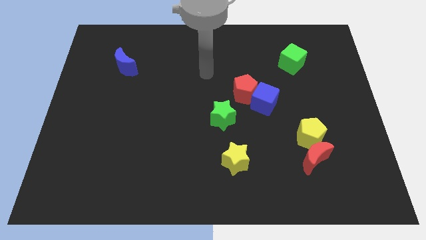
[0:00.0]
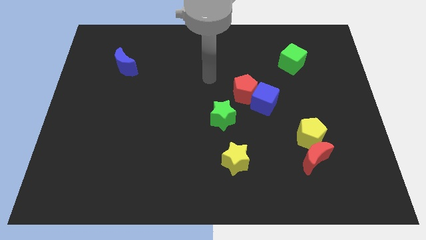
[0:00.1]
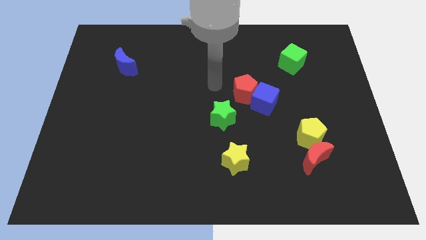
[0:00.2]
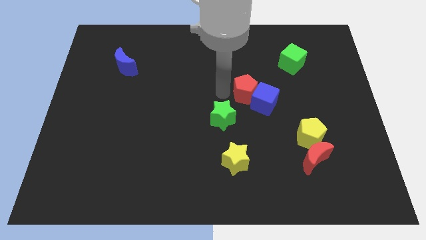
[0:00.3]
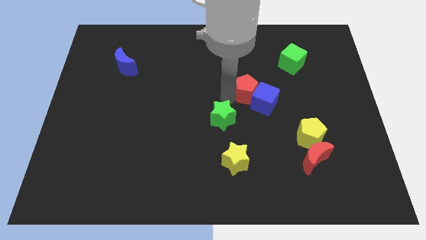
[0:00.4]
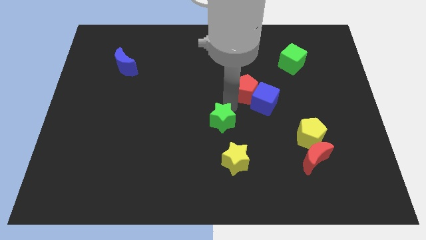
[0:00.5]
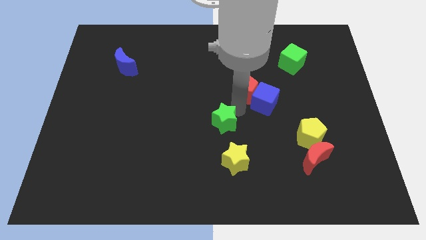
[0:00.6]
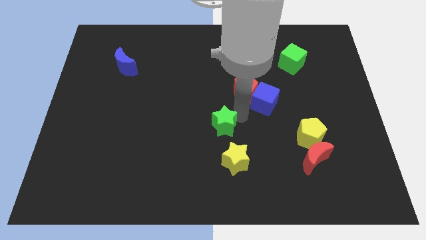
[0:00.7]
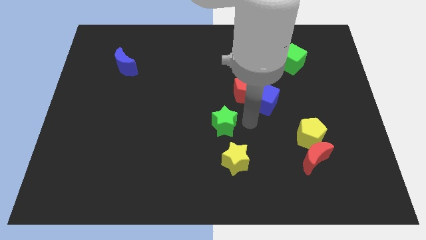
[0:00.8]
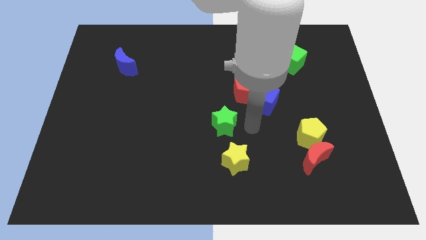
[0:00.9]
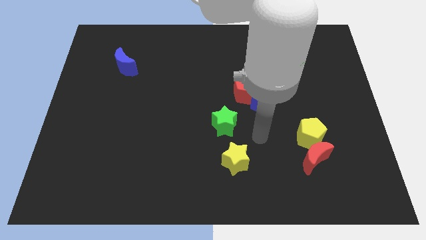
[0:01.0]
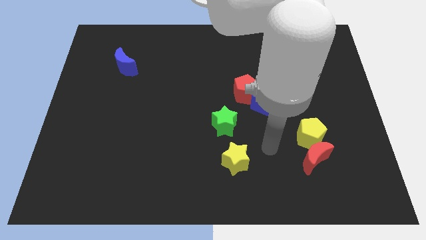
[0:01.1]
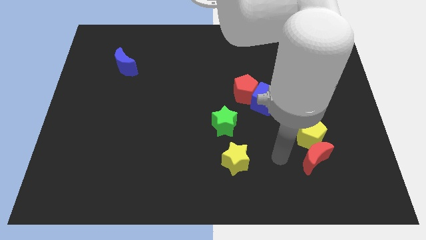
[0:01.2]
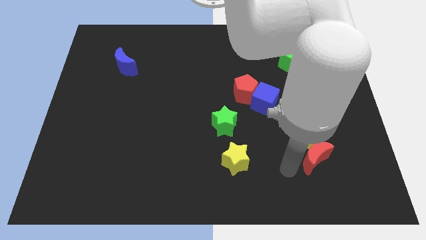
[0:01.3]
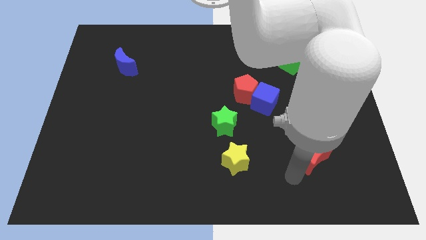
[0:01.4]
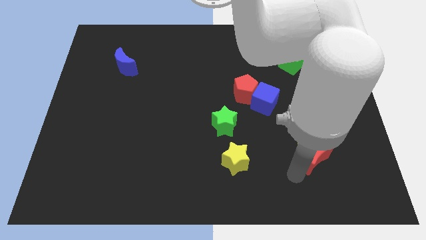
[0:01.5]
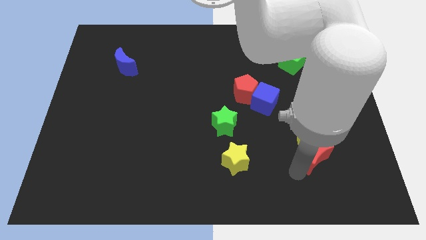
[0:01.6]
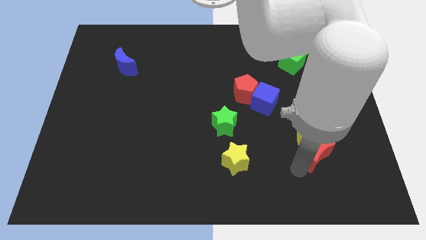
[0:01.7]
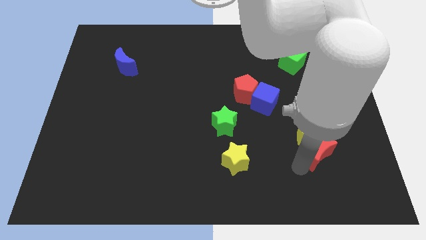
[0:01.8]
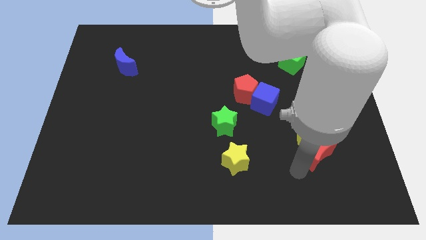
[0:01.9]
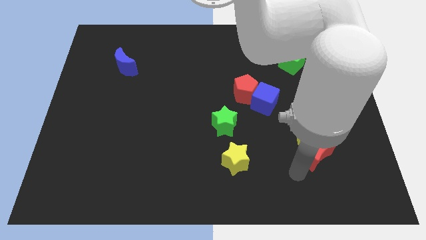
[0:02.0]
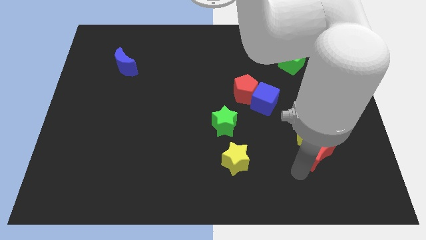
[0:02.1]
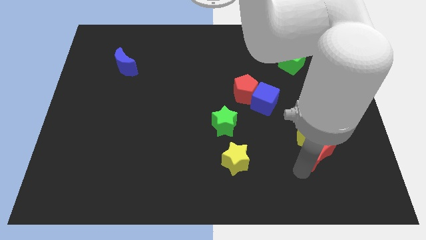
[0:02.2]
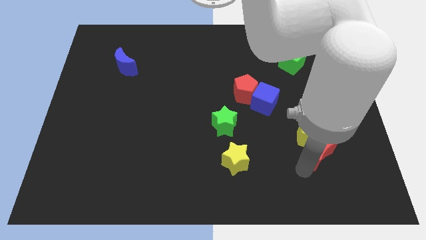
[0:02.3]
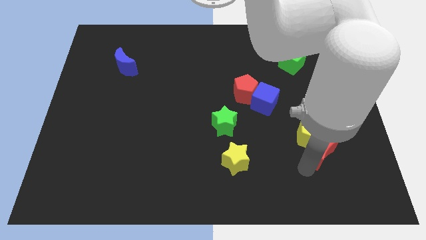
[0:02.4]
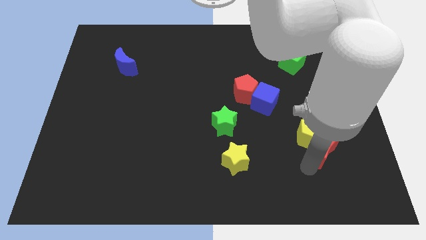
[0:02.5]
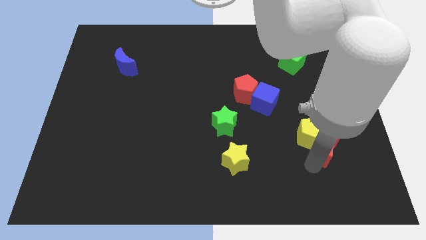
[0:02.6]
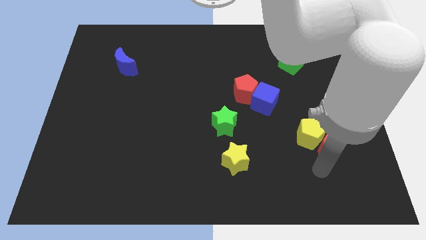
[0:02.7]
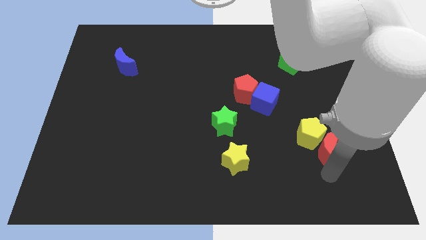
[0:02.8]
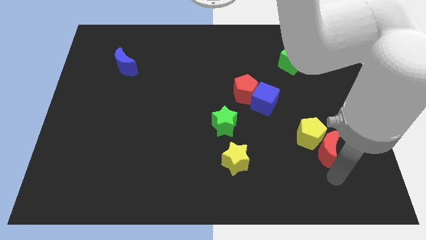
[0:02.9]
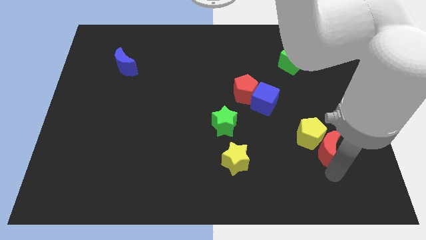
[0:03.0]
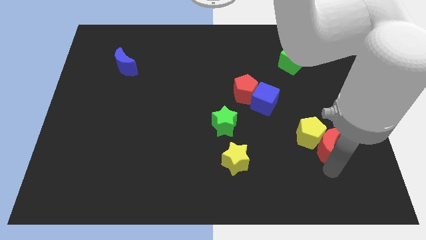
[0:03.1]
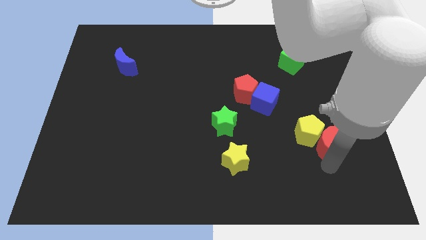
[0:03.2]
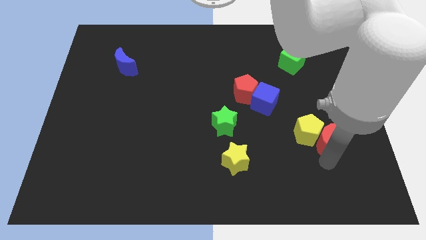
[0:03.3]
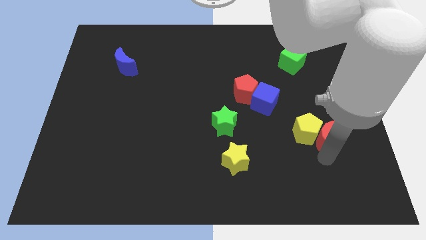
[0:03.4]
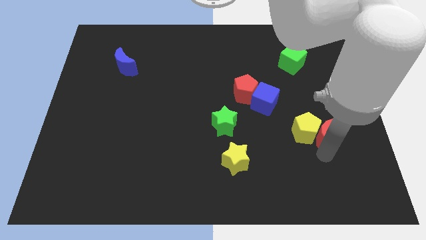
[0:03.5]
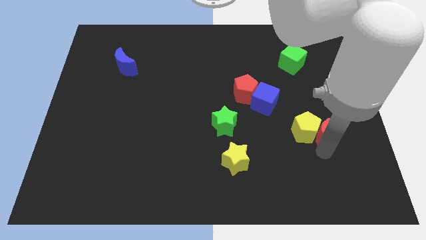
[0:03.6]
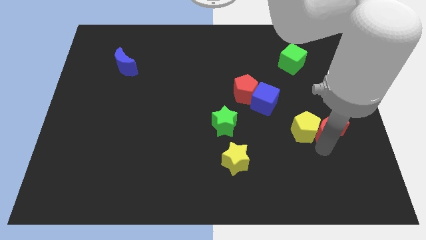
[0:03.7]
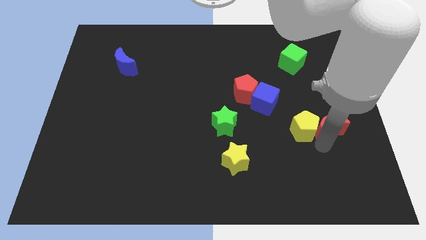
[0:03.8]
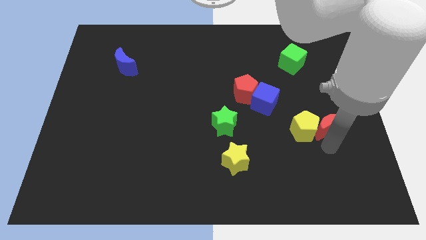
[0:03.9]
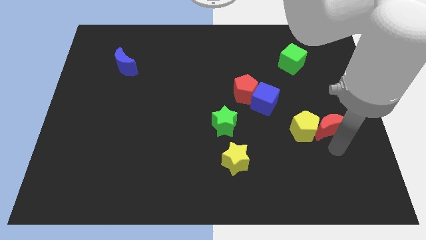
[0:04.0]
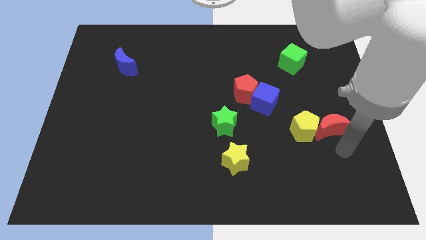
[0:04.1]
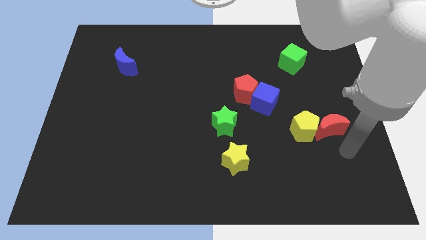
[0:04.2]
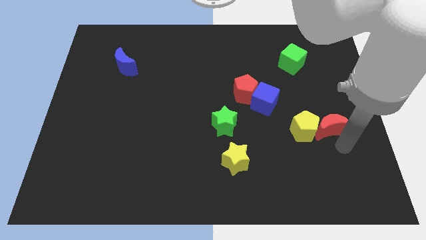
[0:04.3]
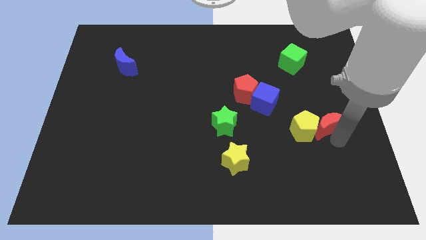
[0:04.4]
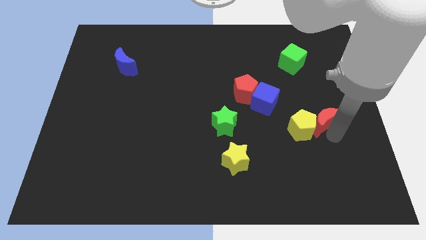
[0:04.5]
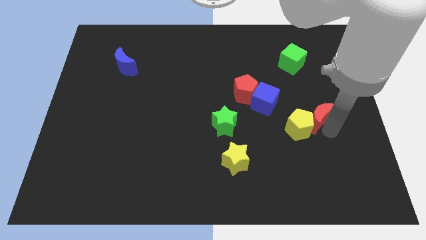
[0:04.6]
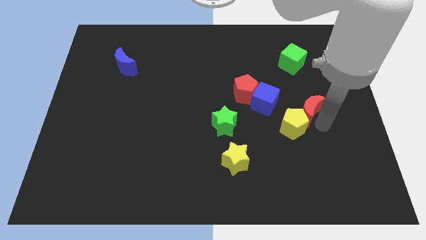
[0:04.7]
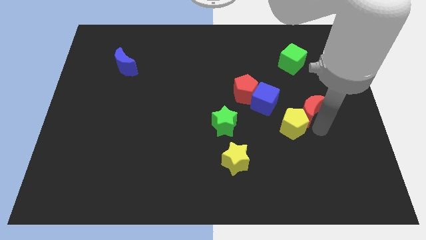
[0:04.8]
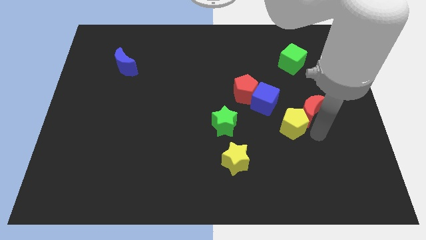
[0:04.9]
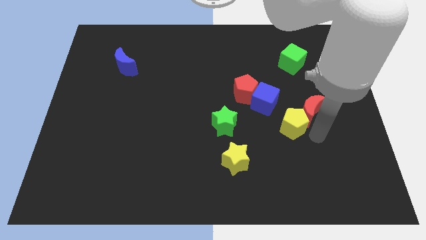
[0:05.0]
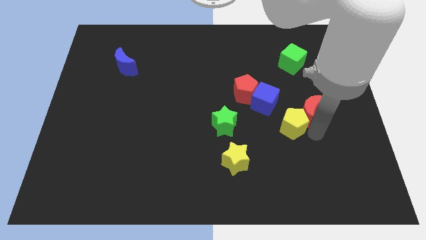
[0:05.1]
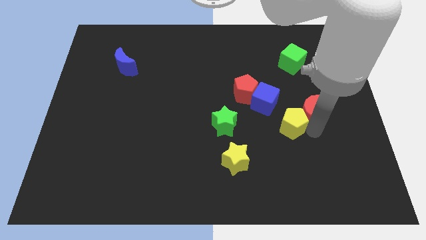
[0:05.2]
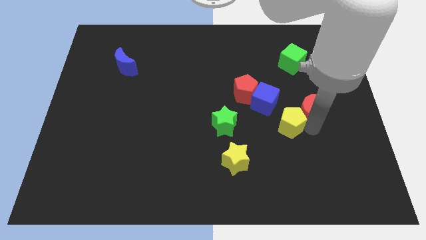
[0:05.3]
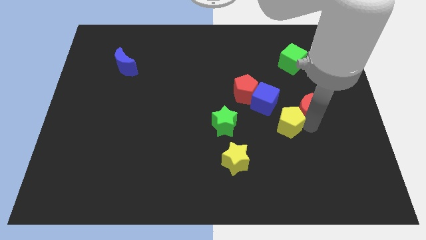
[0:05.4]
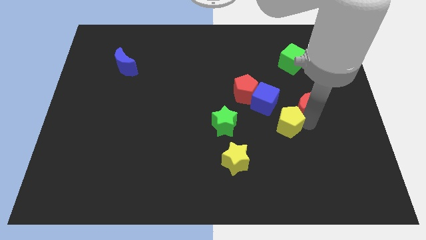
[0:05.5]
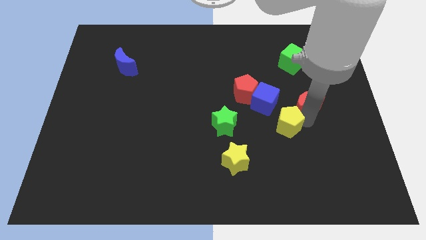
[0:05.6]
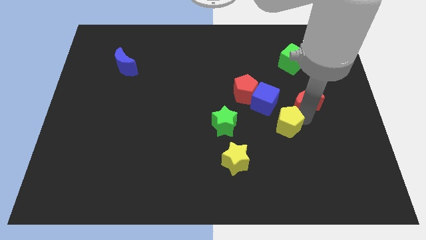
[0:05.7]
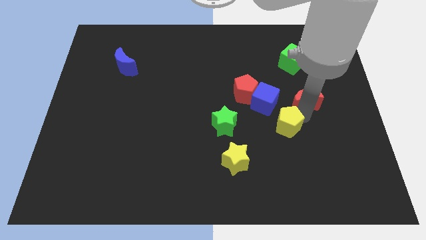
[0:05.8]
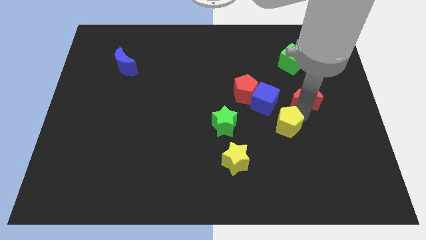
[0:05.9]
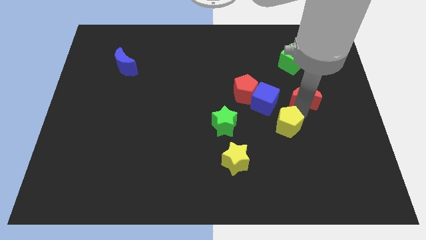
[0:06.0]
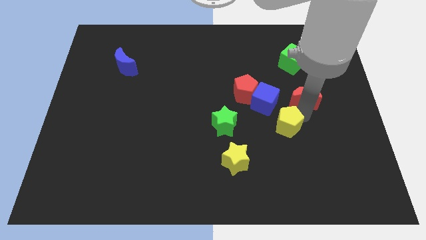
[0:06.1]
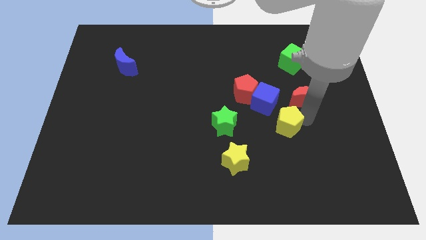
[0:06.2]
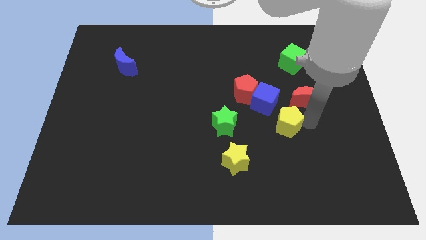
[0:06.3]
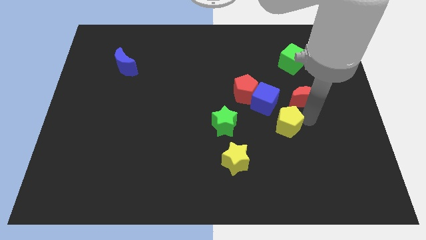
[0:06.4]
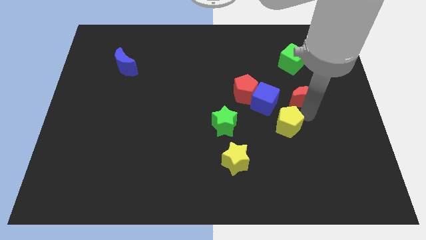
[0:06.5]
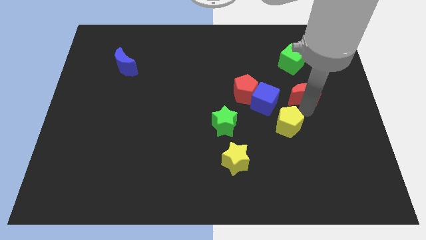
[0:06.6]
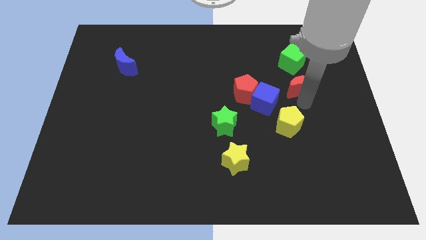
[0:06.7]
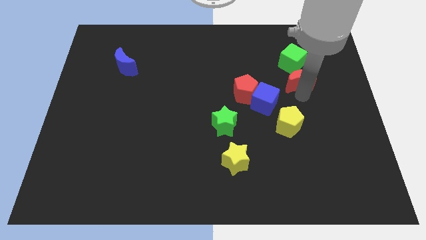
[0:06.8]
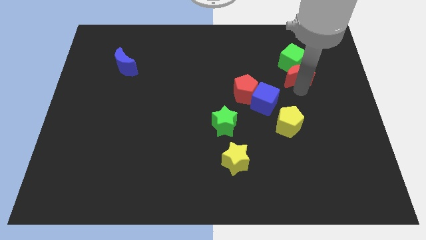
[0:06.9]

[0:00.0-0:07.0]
slide the red moon close to the green cube

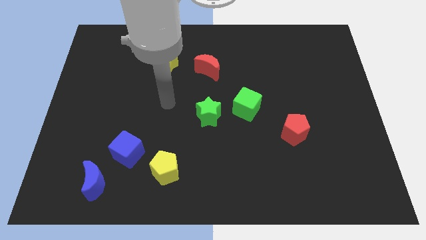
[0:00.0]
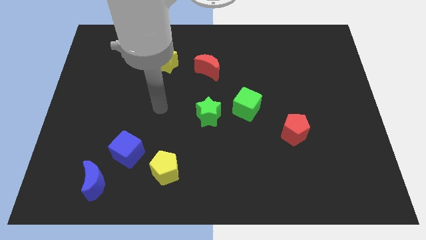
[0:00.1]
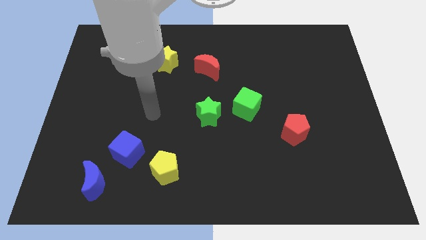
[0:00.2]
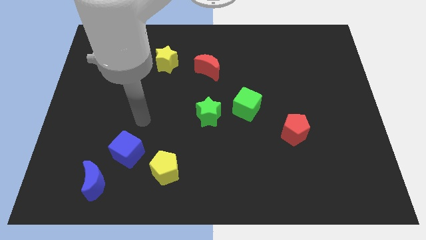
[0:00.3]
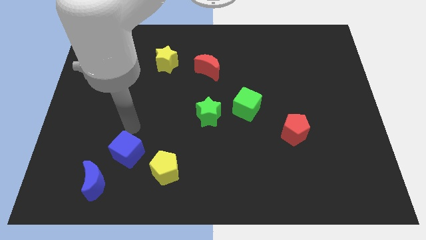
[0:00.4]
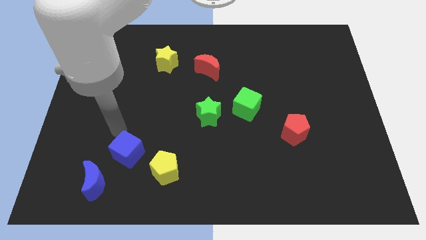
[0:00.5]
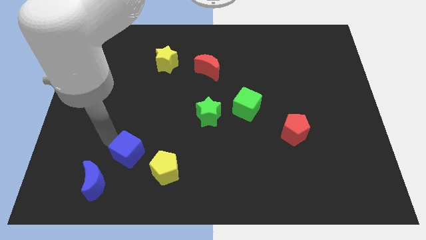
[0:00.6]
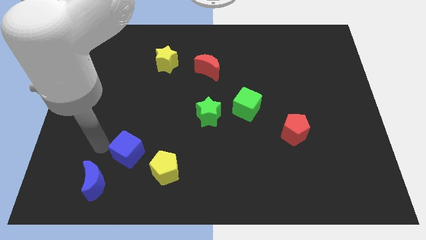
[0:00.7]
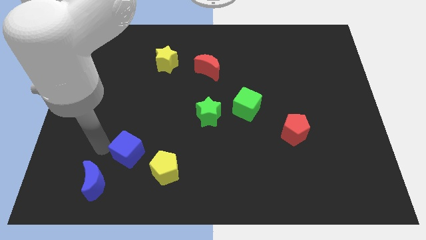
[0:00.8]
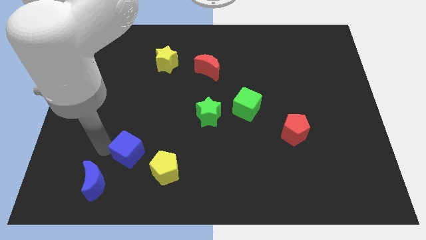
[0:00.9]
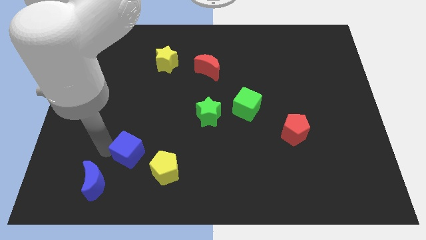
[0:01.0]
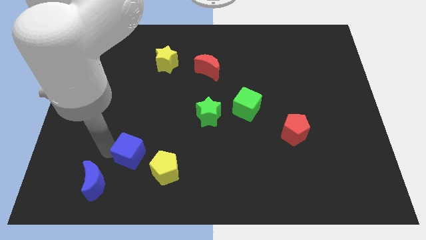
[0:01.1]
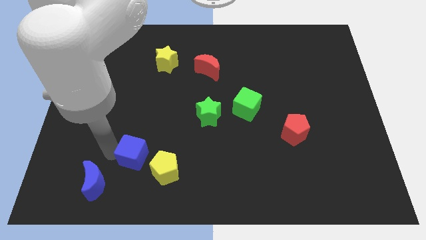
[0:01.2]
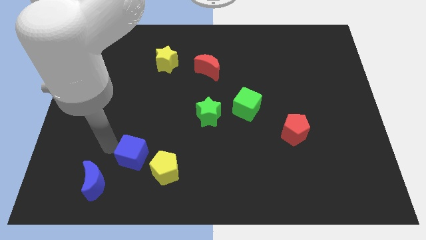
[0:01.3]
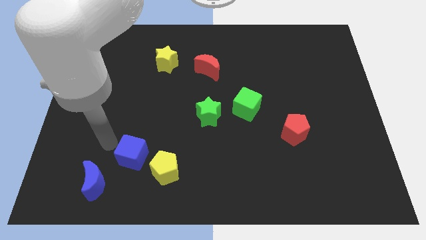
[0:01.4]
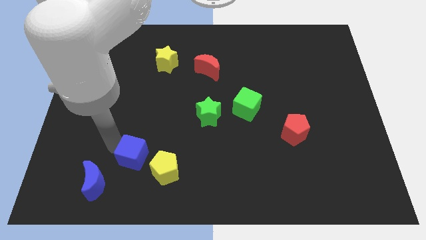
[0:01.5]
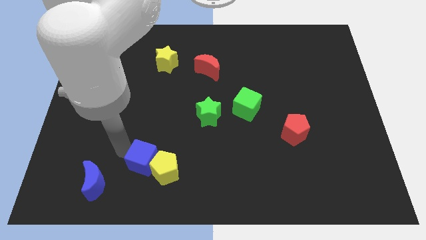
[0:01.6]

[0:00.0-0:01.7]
put the blue cube close to the yellow pentagon
